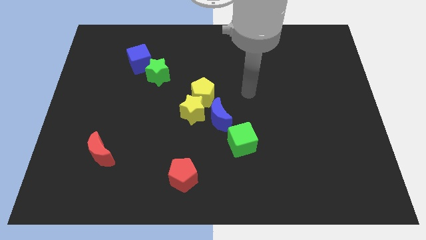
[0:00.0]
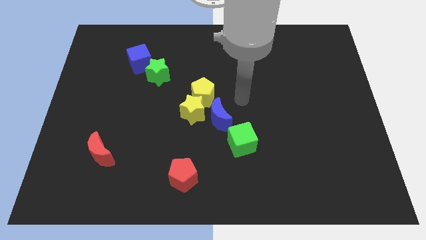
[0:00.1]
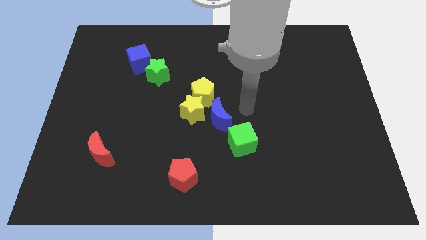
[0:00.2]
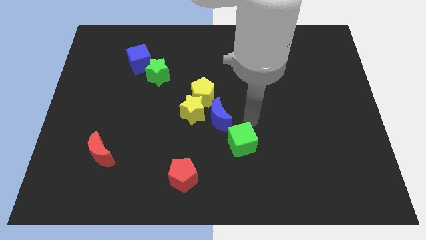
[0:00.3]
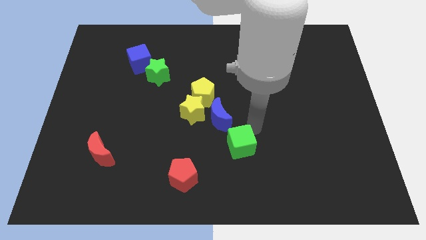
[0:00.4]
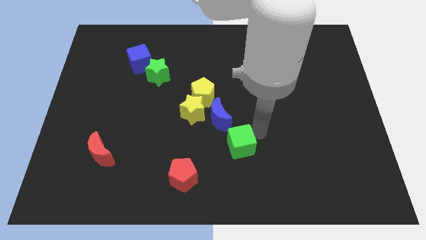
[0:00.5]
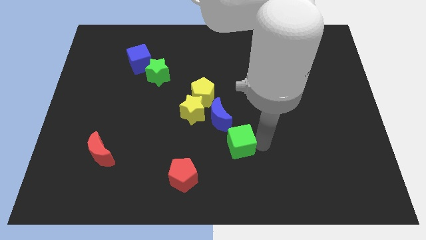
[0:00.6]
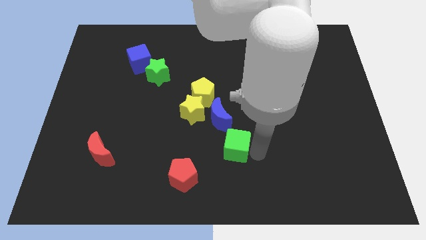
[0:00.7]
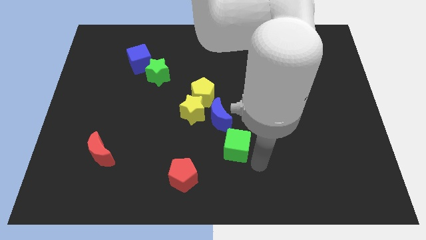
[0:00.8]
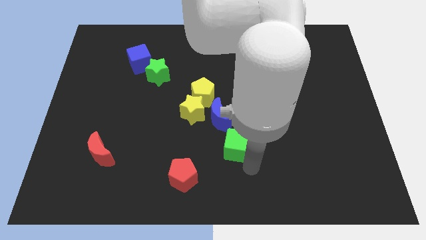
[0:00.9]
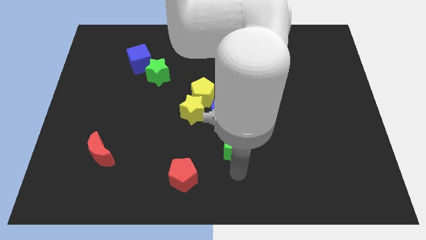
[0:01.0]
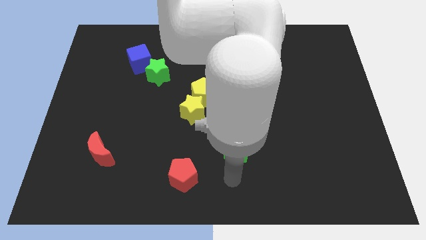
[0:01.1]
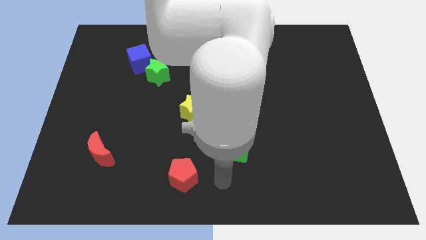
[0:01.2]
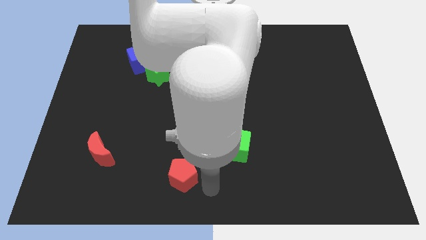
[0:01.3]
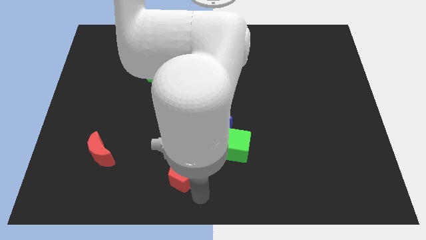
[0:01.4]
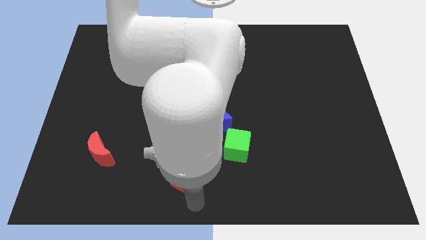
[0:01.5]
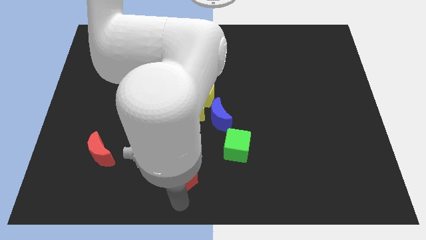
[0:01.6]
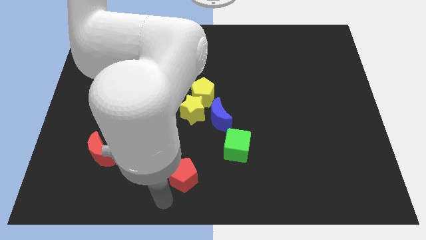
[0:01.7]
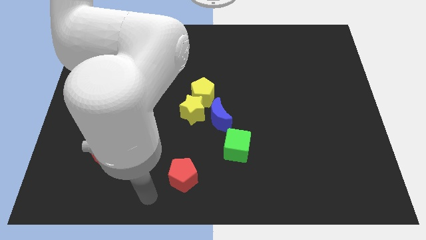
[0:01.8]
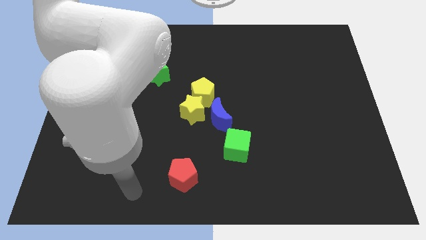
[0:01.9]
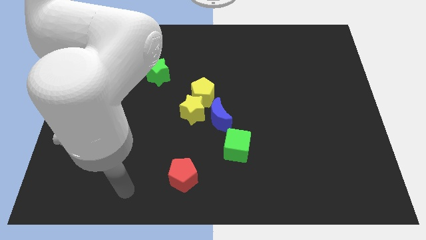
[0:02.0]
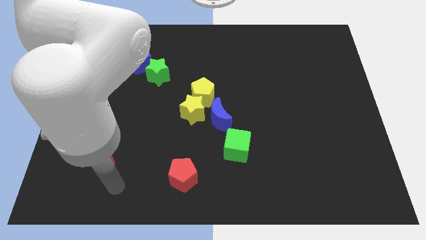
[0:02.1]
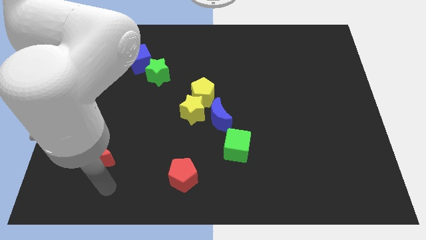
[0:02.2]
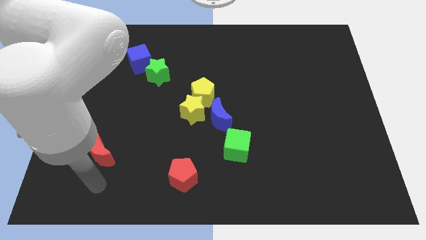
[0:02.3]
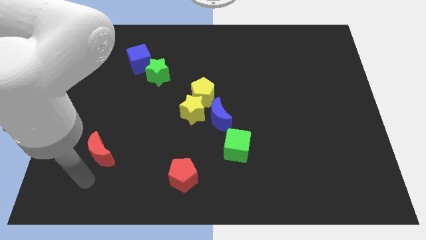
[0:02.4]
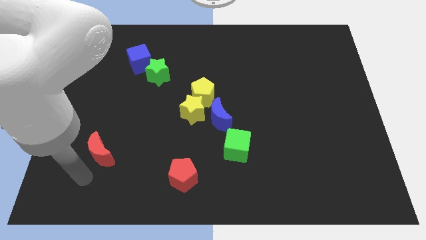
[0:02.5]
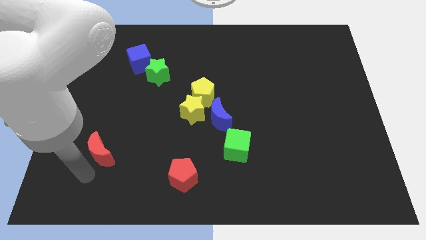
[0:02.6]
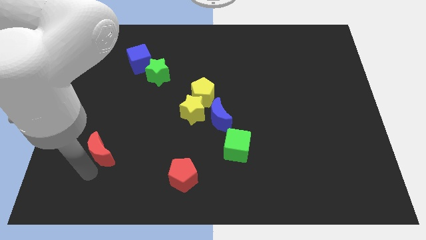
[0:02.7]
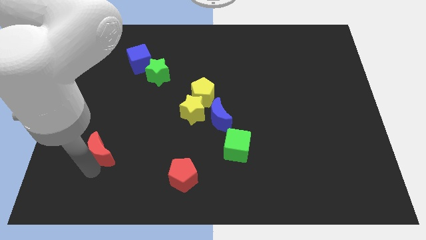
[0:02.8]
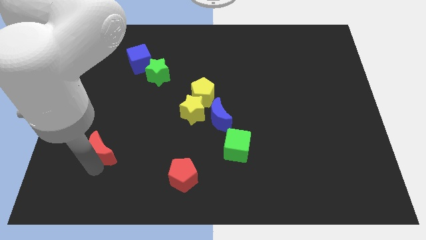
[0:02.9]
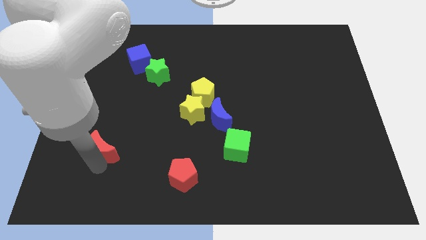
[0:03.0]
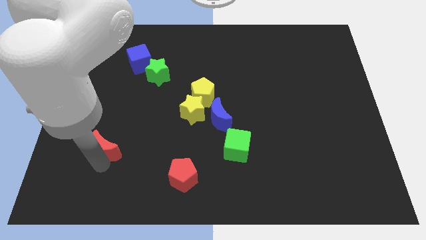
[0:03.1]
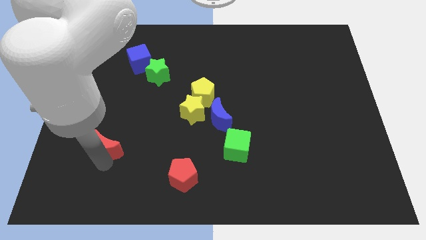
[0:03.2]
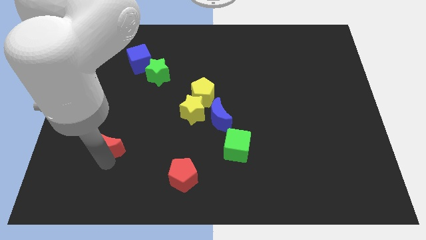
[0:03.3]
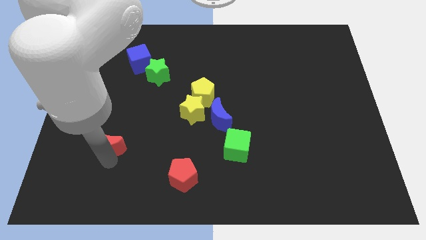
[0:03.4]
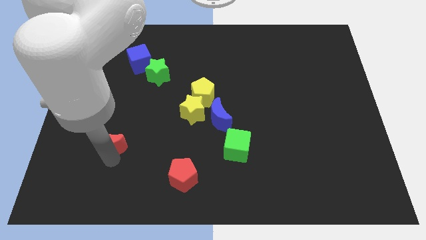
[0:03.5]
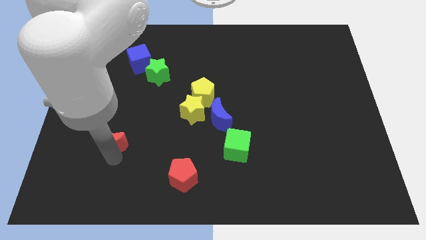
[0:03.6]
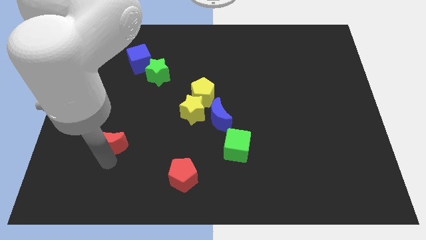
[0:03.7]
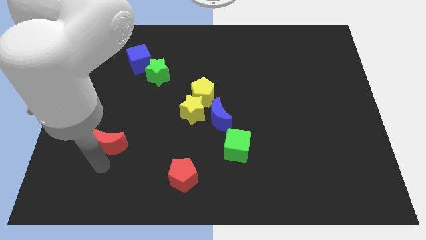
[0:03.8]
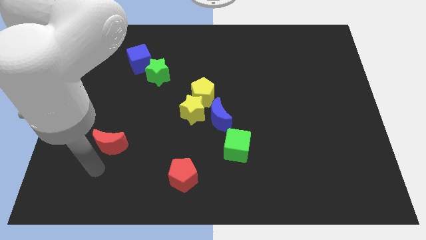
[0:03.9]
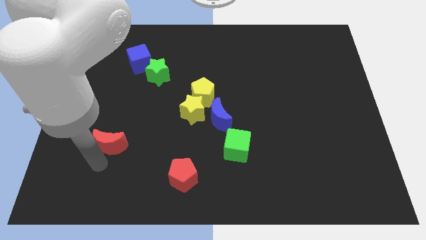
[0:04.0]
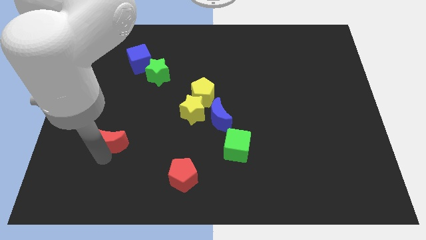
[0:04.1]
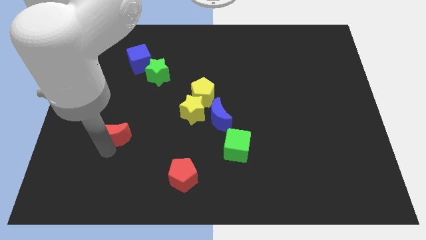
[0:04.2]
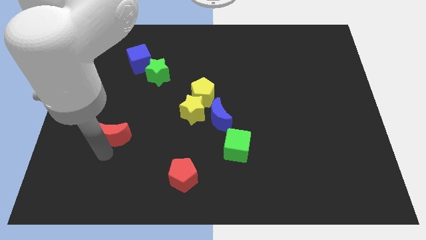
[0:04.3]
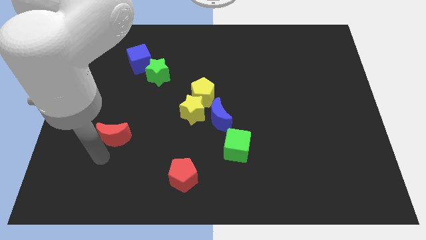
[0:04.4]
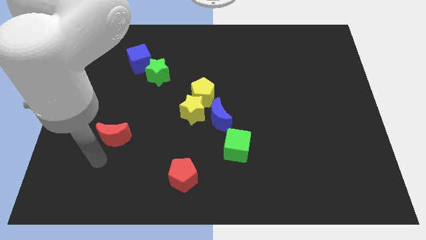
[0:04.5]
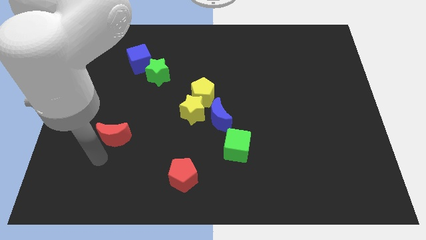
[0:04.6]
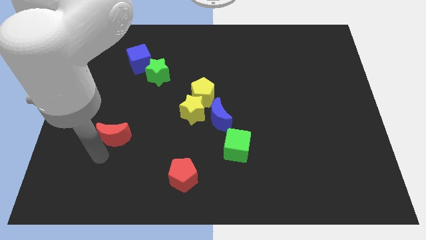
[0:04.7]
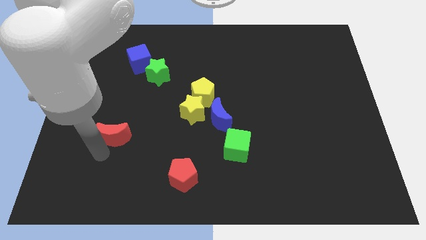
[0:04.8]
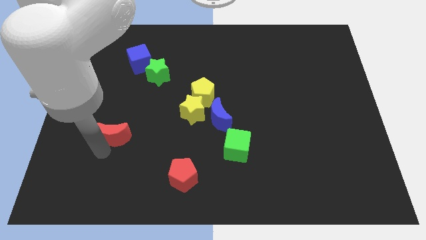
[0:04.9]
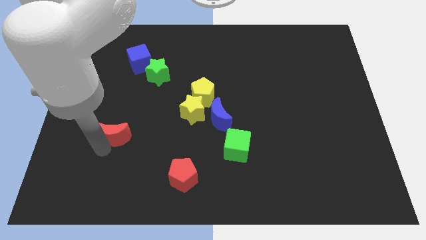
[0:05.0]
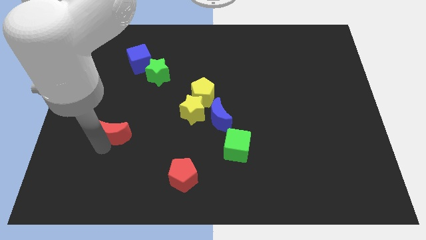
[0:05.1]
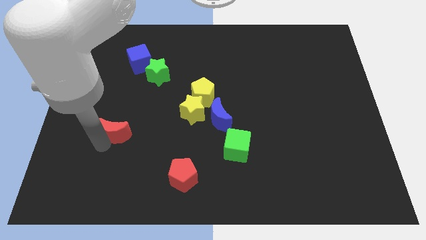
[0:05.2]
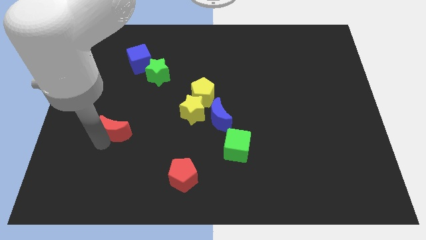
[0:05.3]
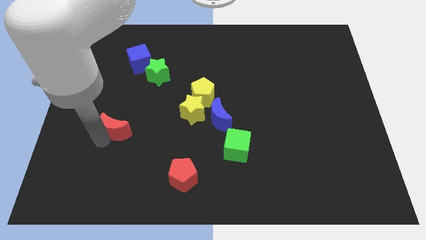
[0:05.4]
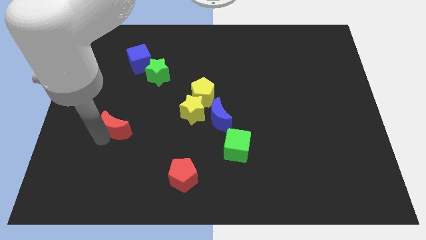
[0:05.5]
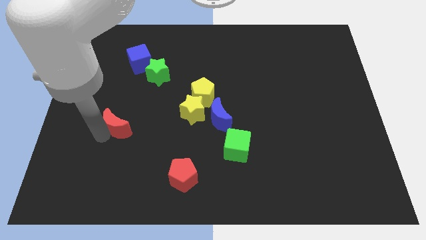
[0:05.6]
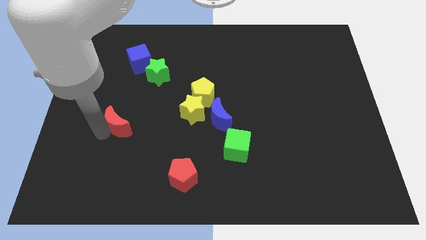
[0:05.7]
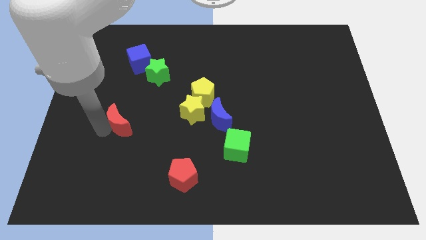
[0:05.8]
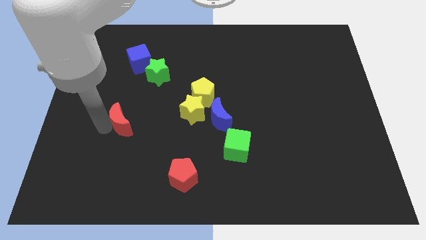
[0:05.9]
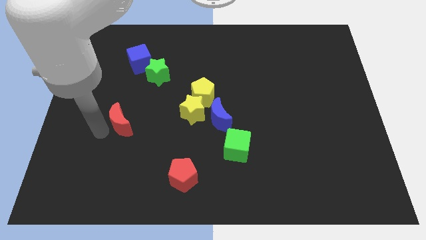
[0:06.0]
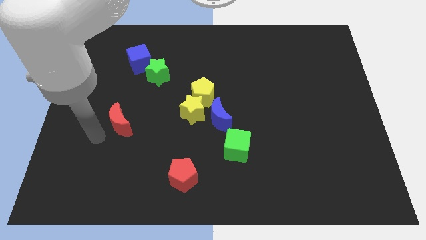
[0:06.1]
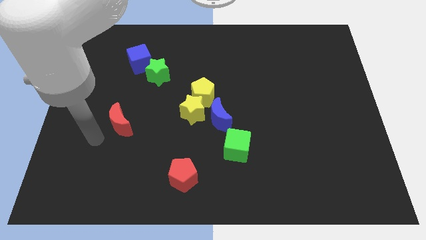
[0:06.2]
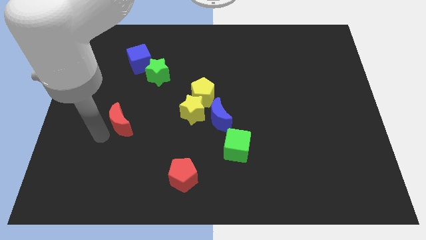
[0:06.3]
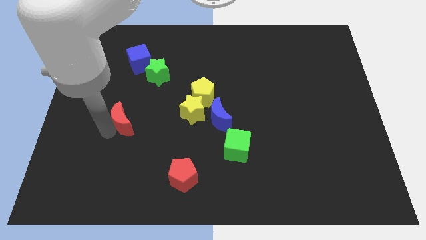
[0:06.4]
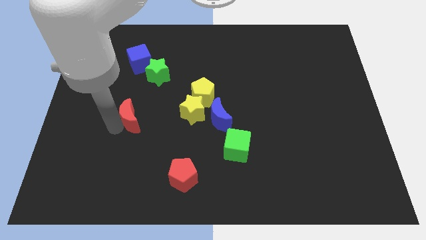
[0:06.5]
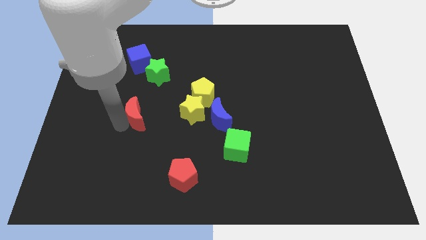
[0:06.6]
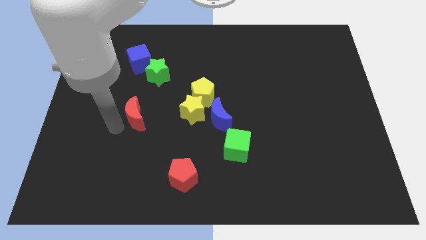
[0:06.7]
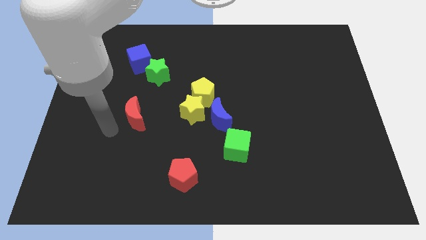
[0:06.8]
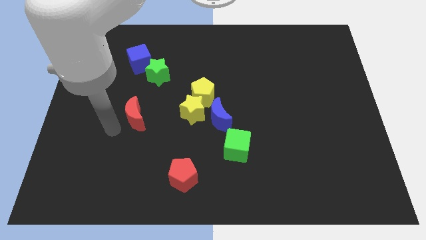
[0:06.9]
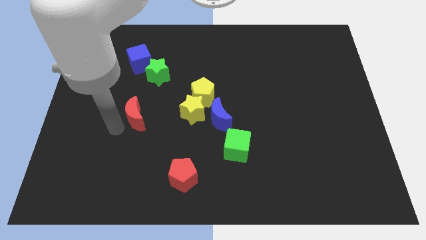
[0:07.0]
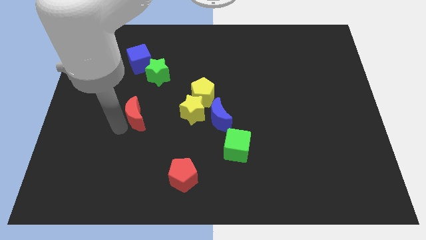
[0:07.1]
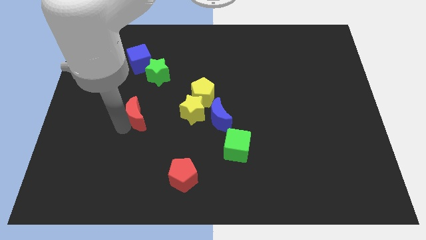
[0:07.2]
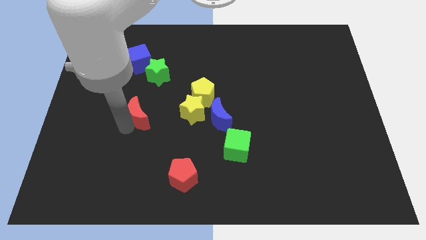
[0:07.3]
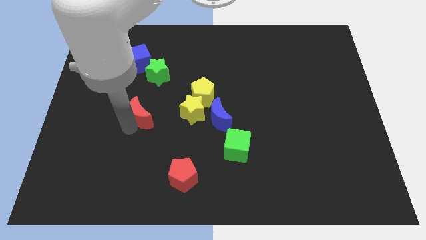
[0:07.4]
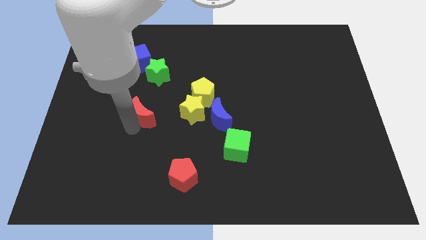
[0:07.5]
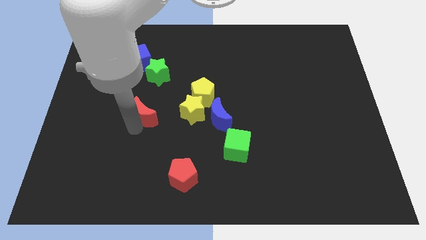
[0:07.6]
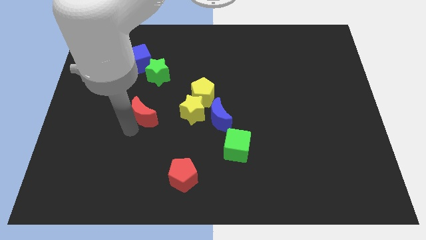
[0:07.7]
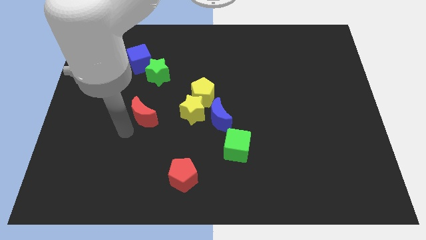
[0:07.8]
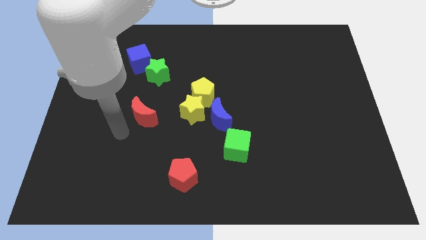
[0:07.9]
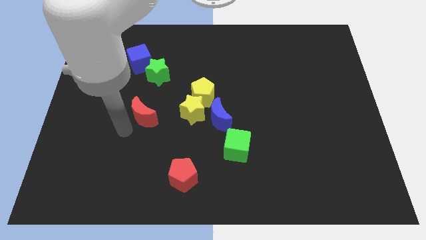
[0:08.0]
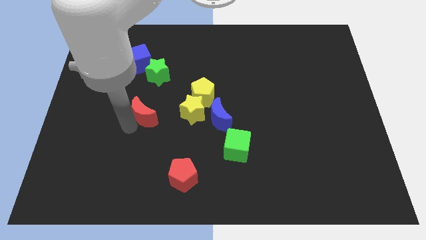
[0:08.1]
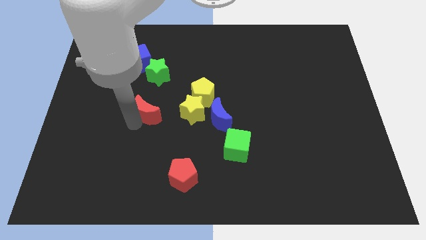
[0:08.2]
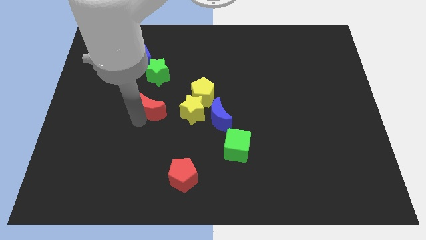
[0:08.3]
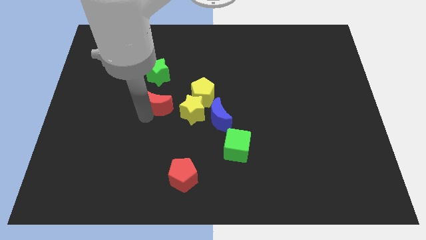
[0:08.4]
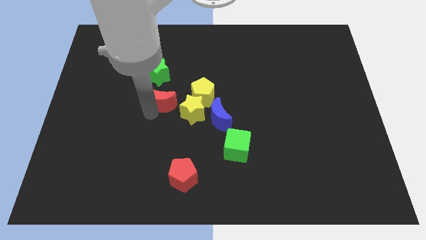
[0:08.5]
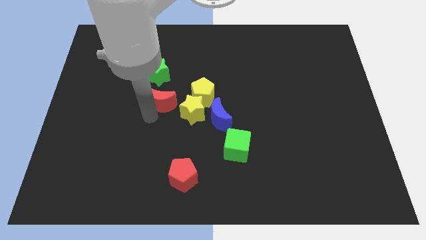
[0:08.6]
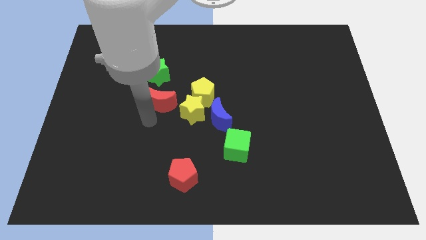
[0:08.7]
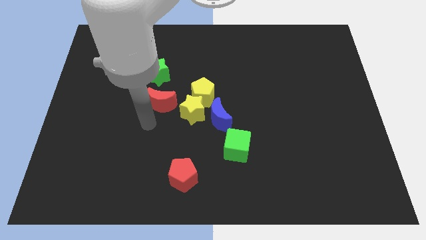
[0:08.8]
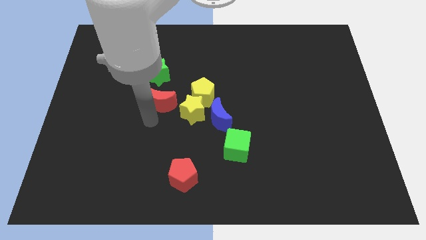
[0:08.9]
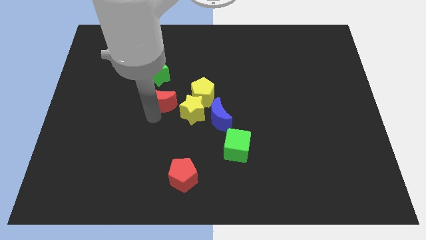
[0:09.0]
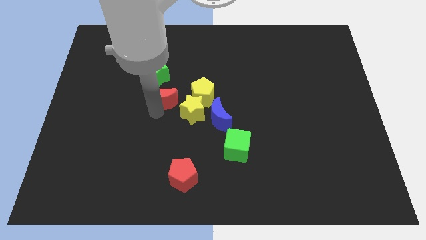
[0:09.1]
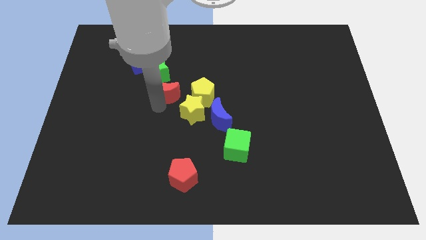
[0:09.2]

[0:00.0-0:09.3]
push the red moon upwards and right
